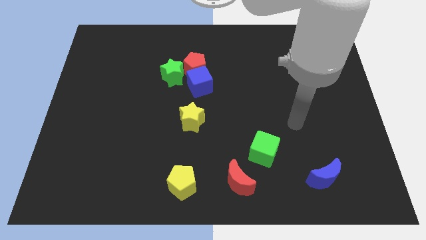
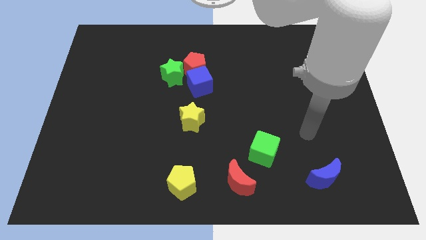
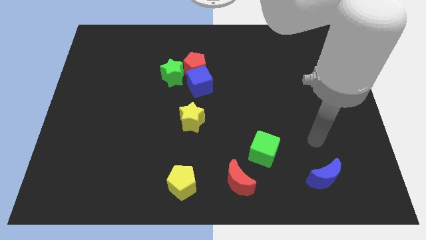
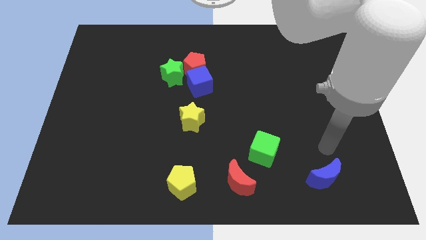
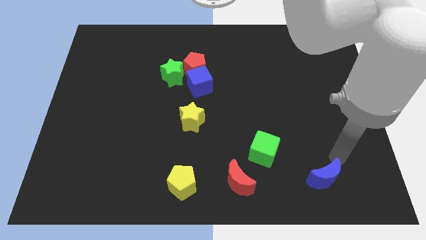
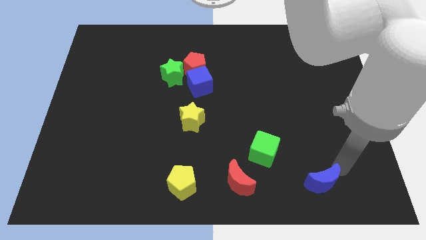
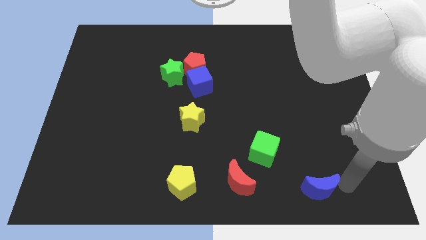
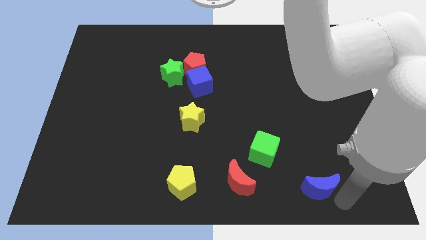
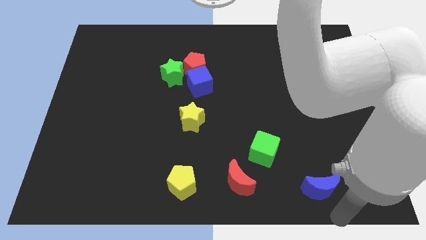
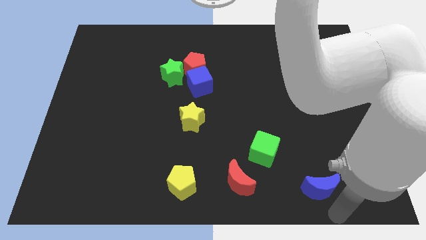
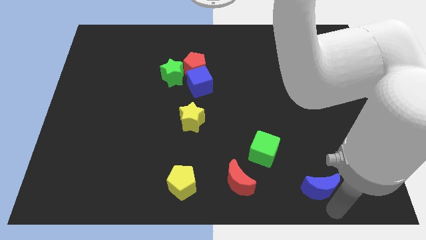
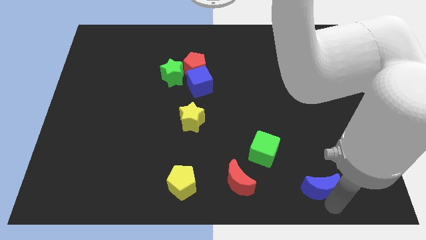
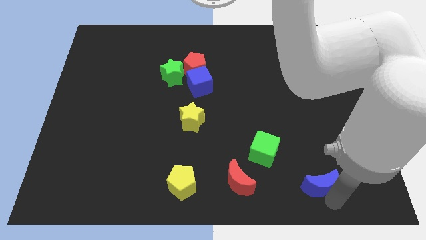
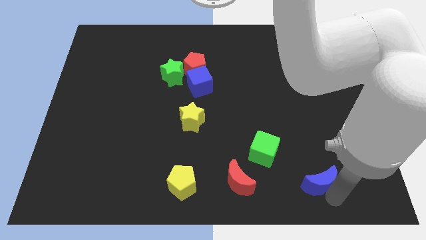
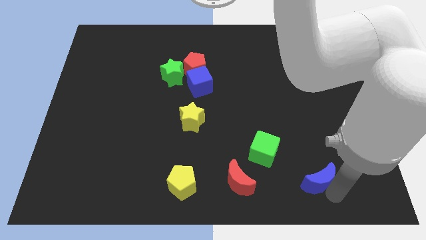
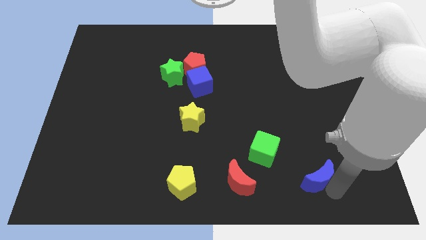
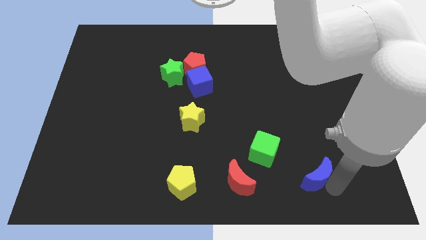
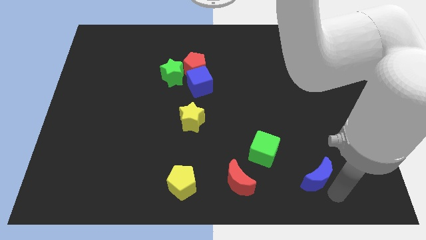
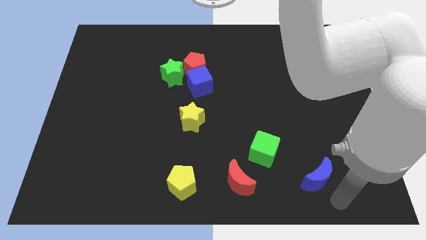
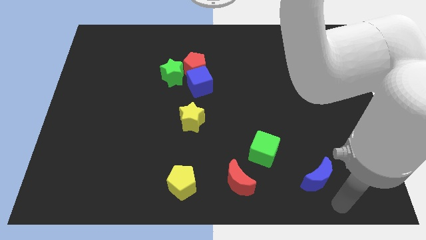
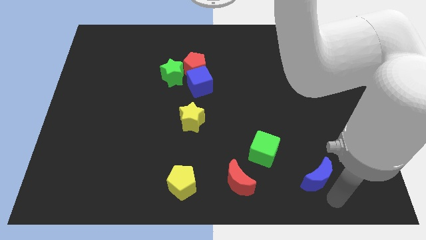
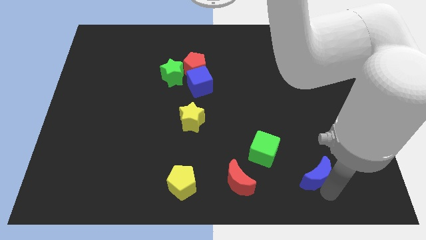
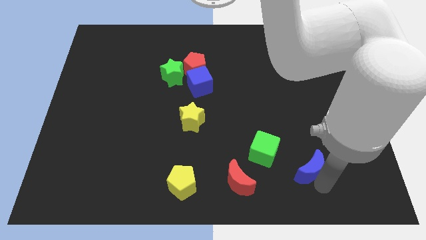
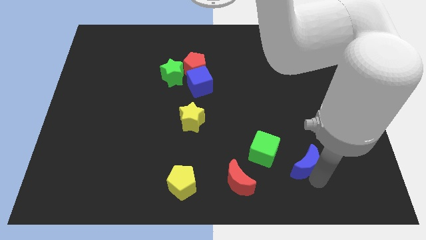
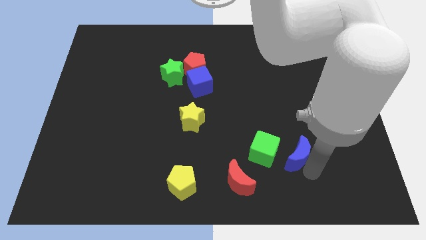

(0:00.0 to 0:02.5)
push the blue moon upwards and then left somewhat

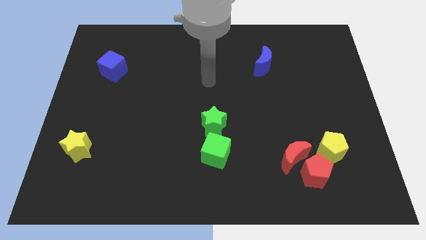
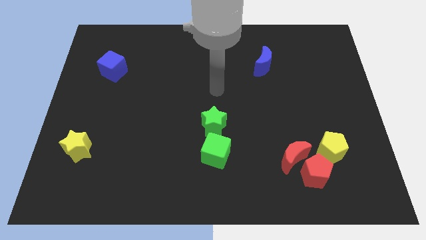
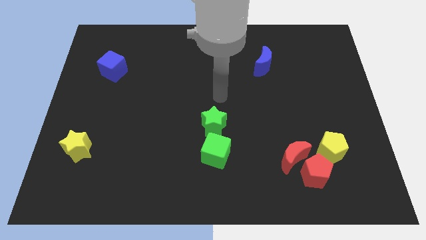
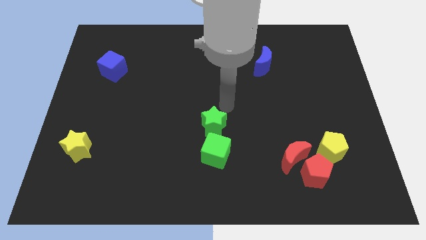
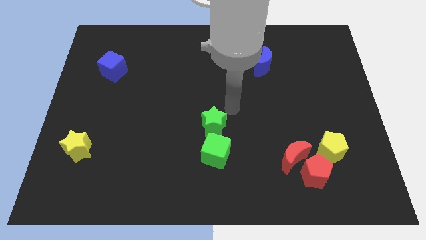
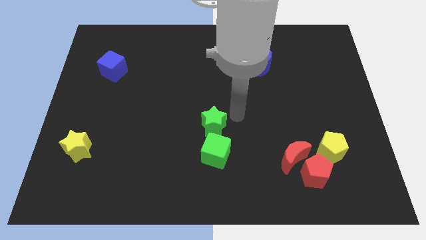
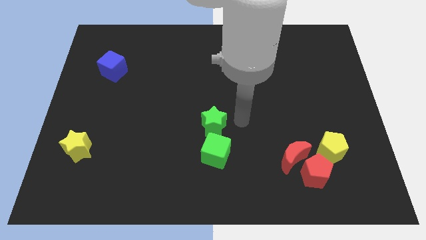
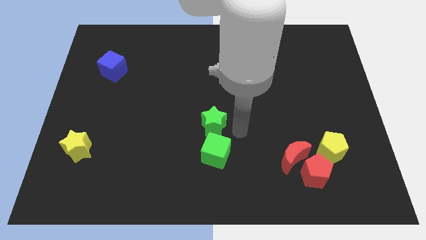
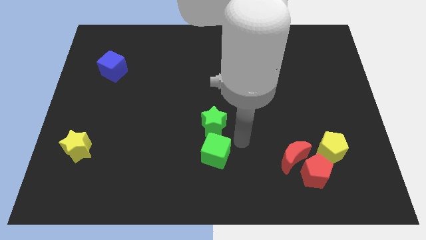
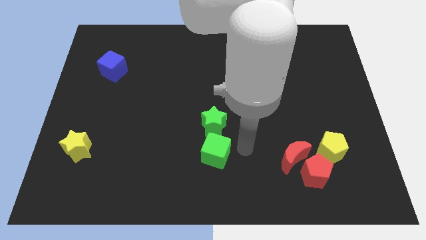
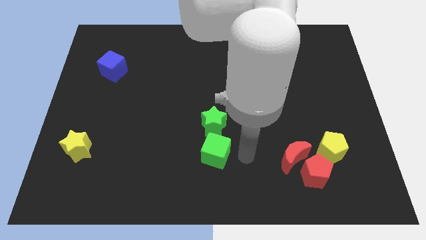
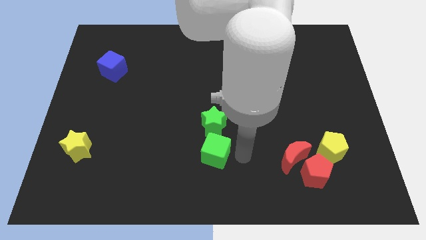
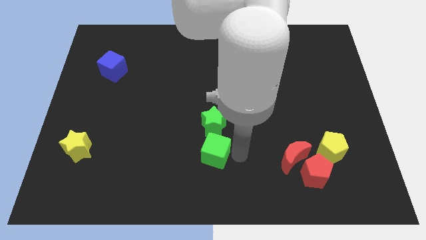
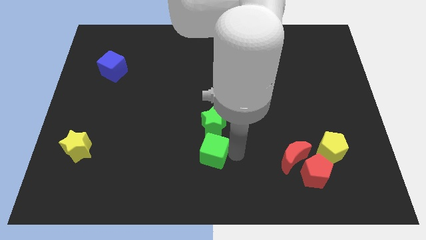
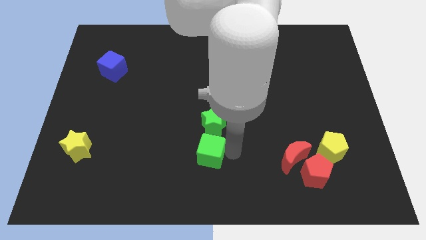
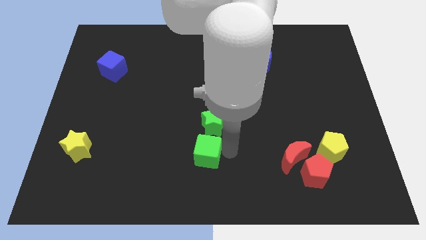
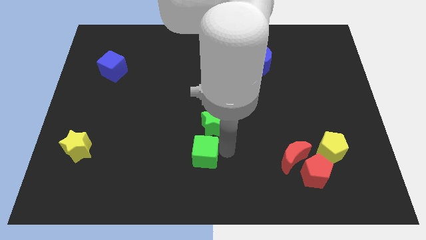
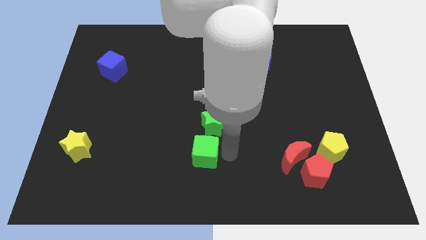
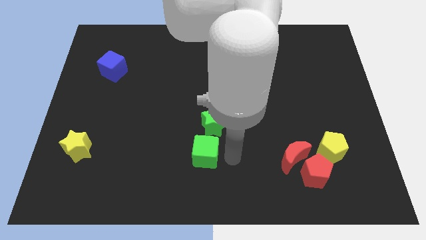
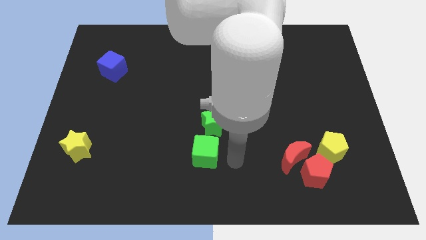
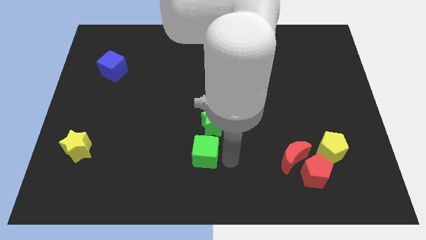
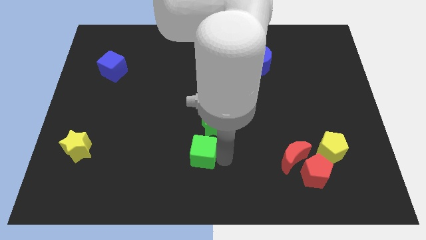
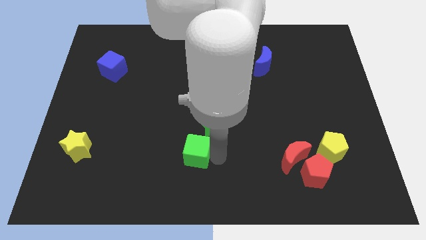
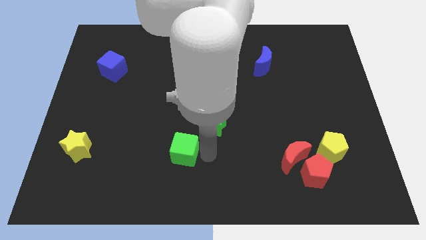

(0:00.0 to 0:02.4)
slightly slide the green cube to the left

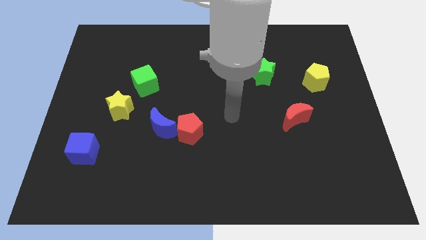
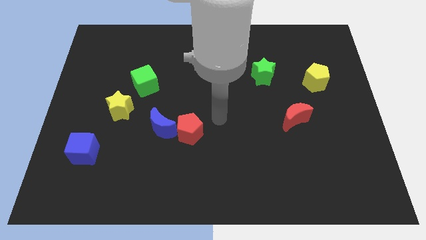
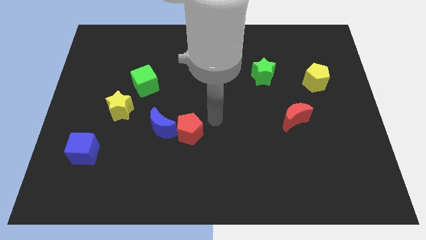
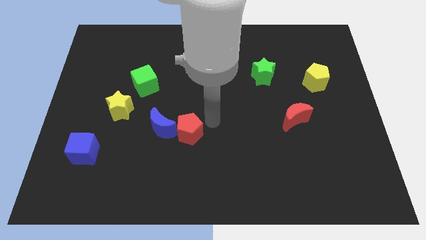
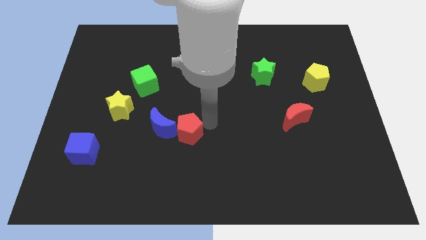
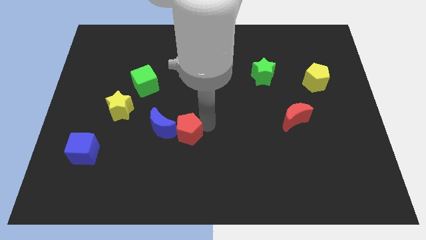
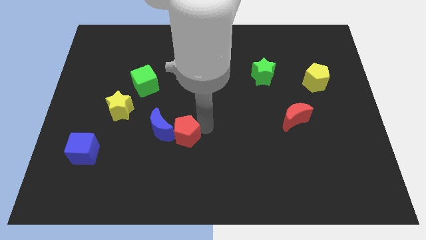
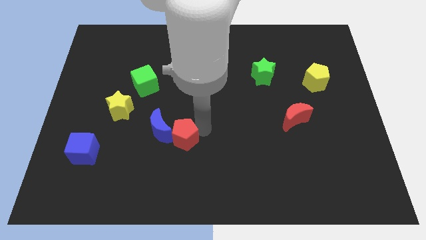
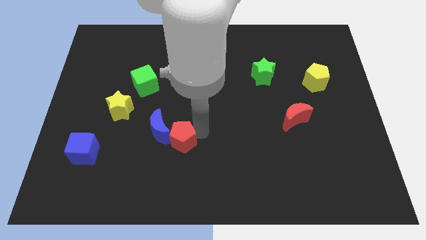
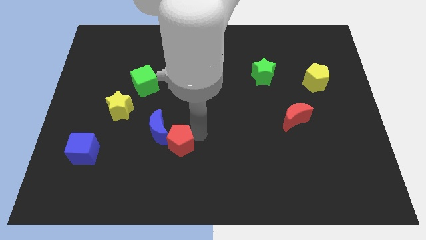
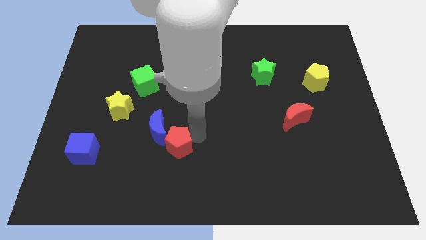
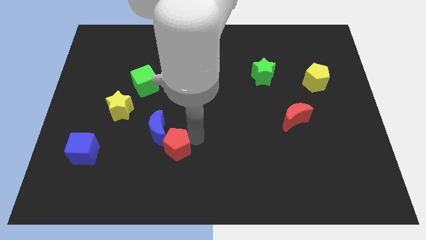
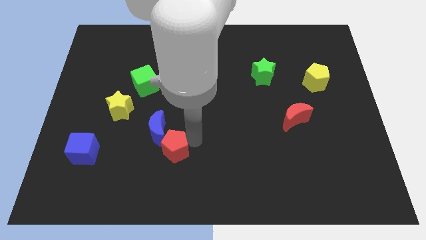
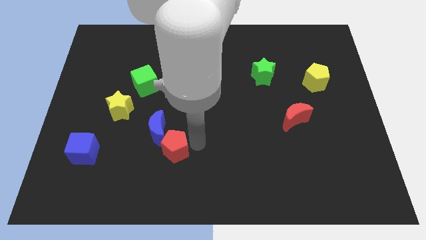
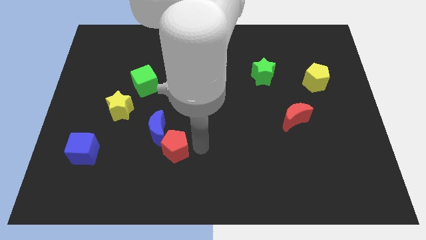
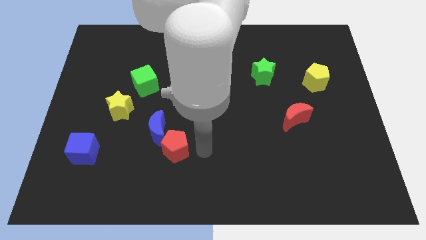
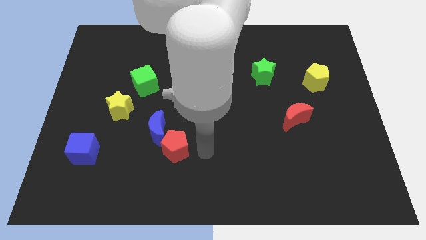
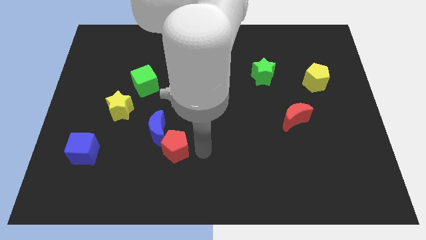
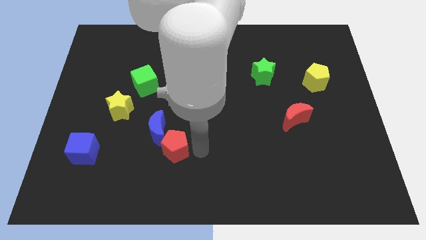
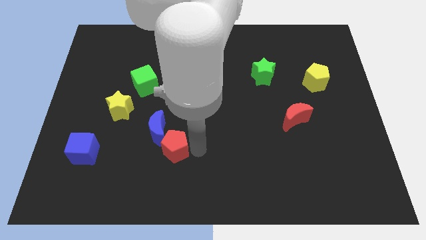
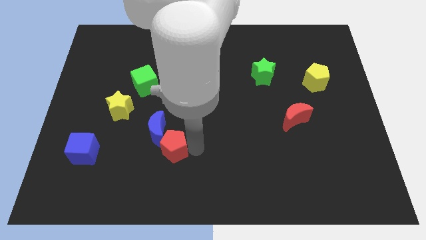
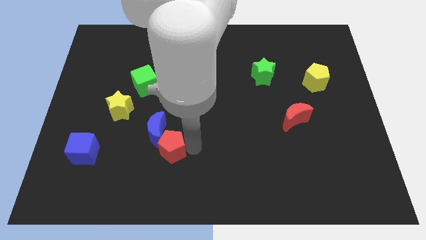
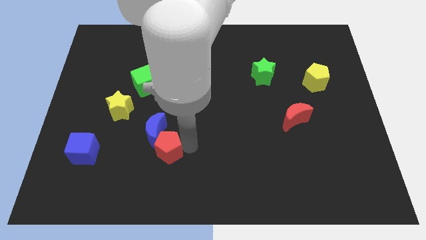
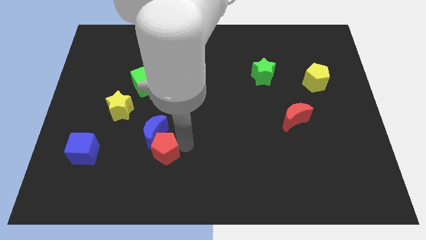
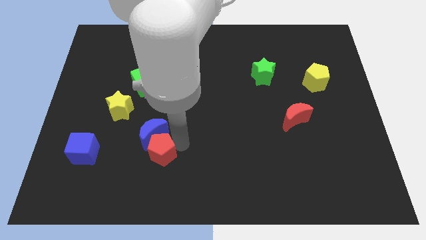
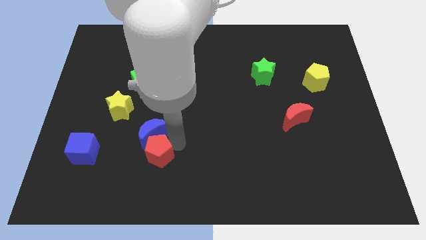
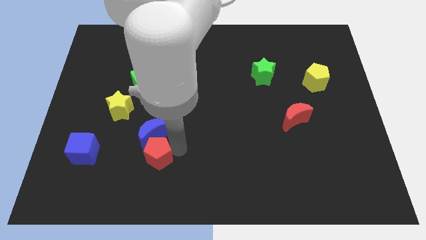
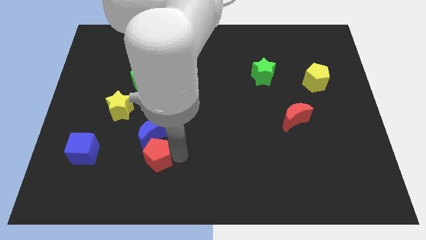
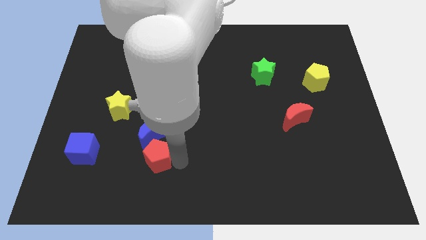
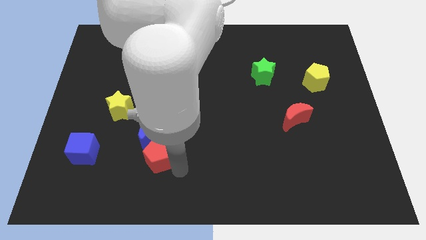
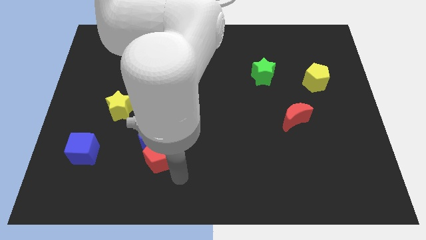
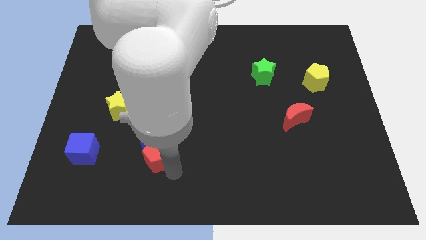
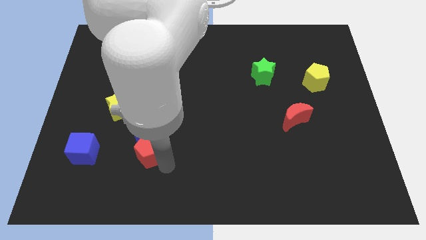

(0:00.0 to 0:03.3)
move the red pentagon to the left slightly
